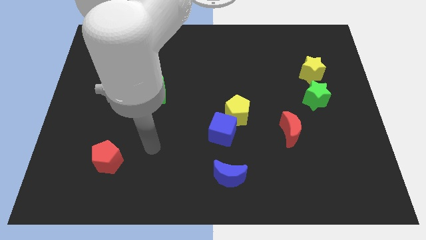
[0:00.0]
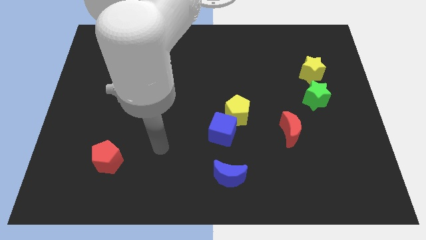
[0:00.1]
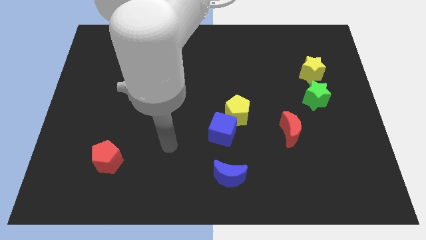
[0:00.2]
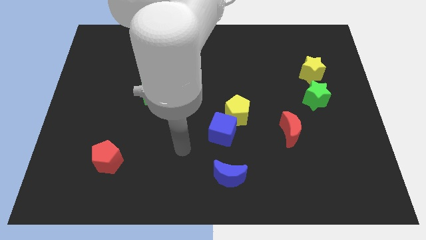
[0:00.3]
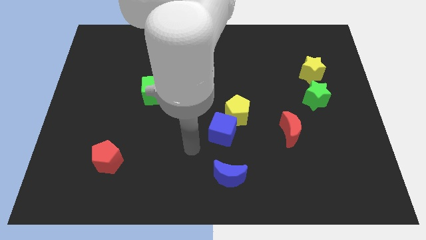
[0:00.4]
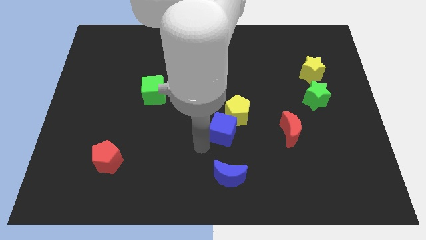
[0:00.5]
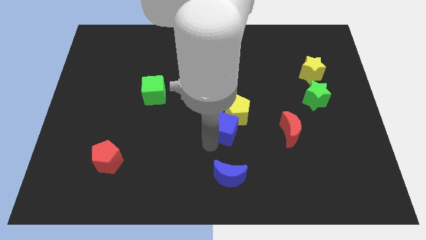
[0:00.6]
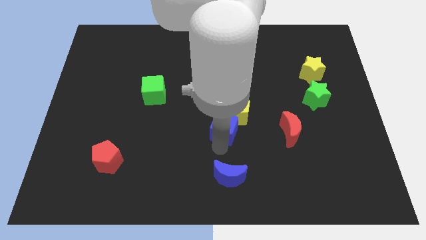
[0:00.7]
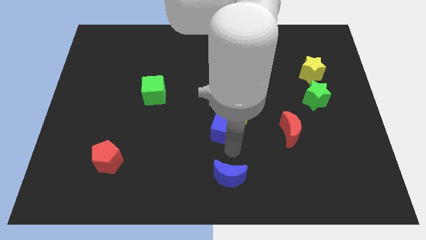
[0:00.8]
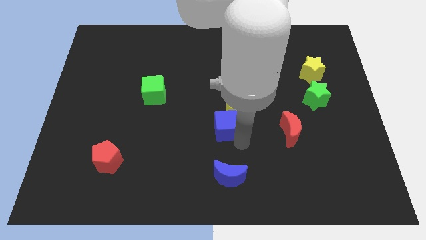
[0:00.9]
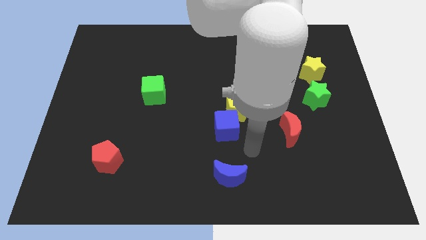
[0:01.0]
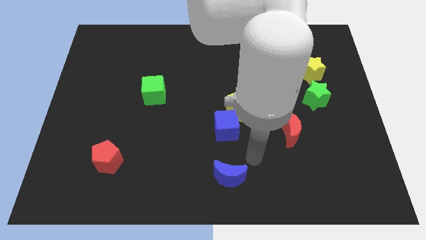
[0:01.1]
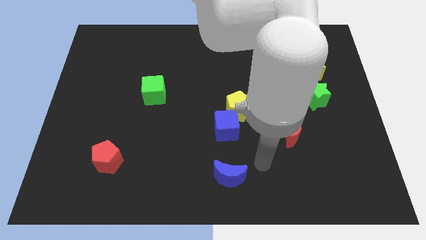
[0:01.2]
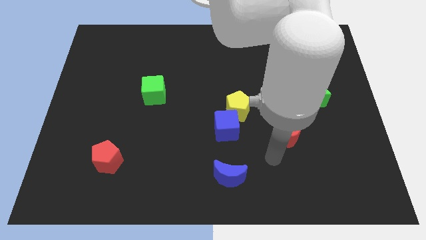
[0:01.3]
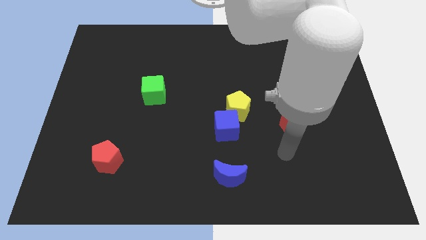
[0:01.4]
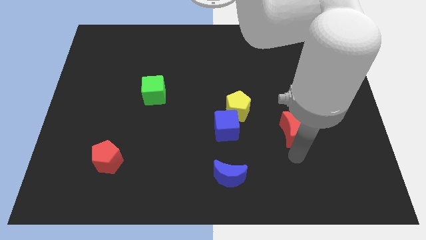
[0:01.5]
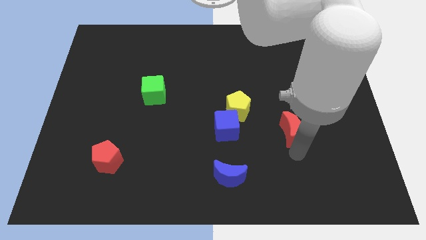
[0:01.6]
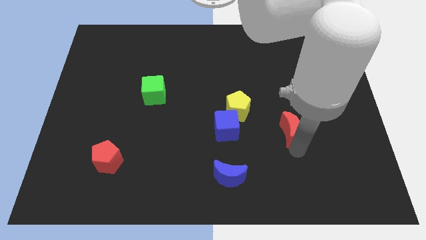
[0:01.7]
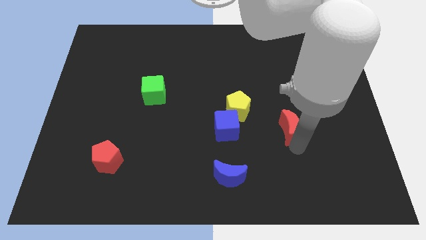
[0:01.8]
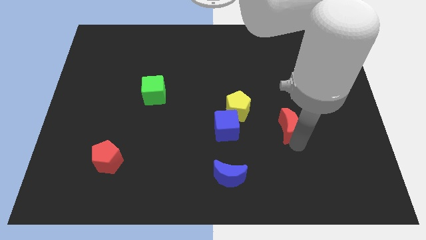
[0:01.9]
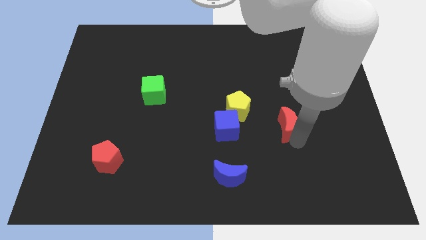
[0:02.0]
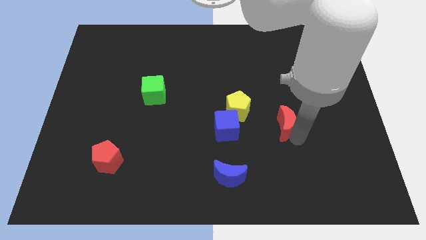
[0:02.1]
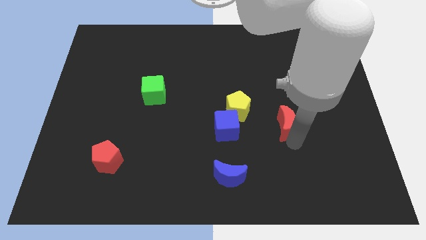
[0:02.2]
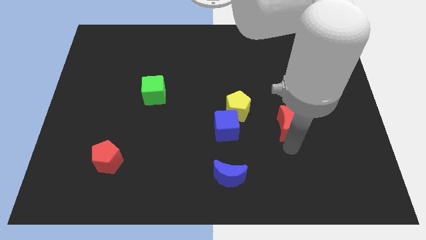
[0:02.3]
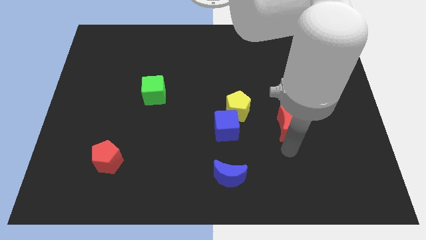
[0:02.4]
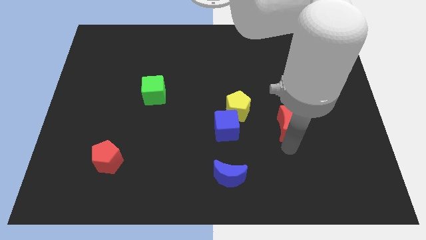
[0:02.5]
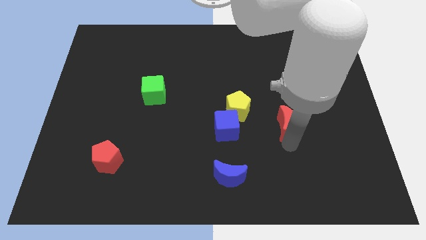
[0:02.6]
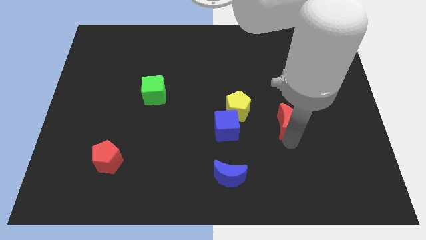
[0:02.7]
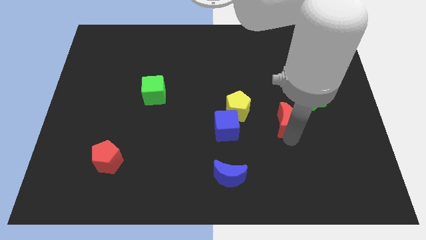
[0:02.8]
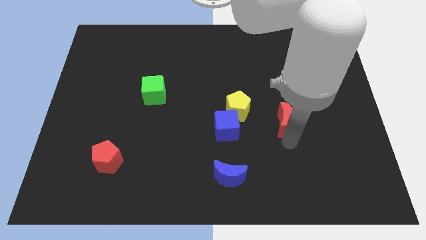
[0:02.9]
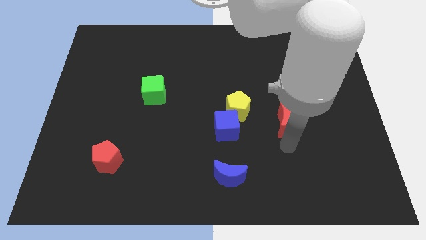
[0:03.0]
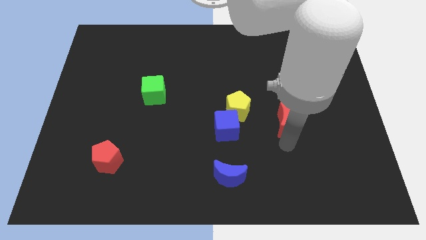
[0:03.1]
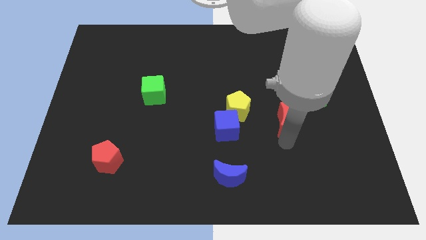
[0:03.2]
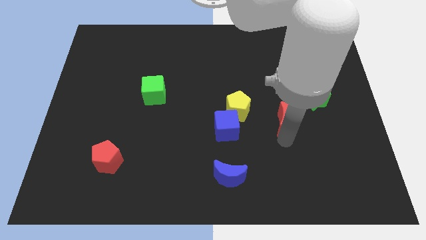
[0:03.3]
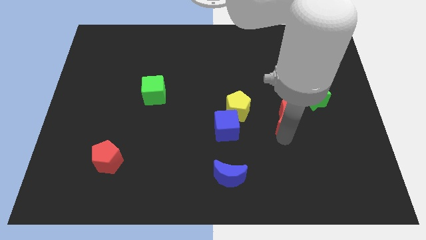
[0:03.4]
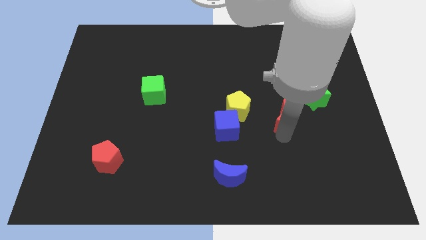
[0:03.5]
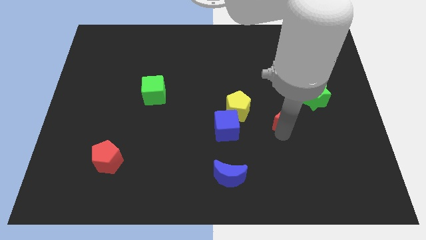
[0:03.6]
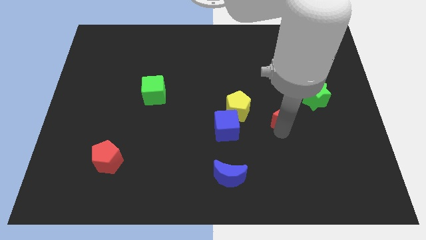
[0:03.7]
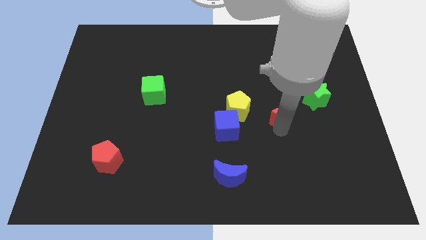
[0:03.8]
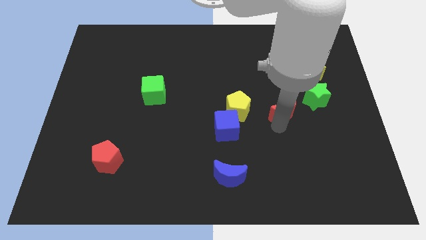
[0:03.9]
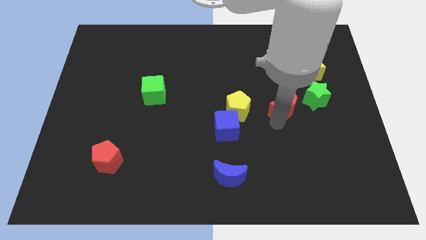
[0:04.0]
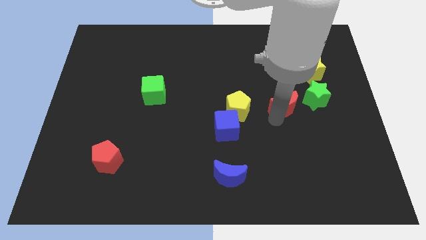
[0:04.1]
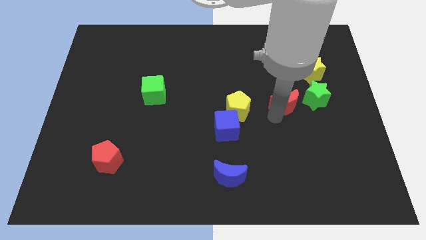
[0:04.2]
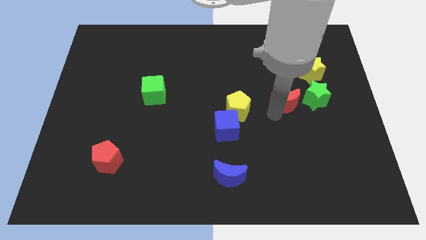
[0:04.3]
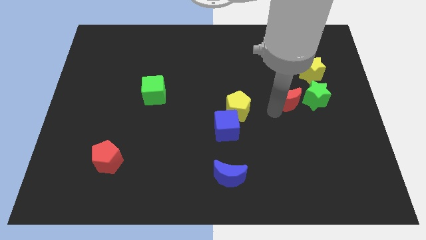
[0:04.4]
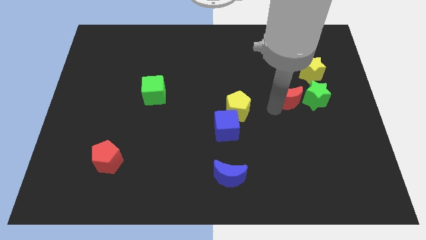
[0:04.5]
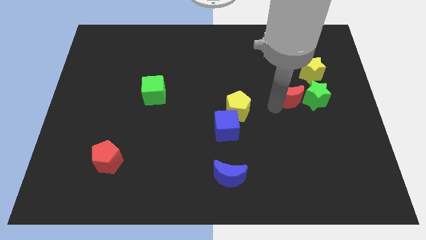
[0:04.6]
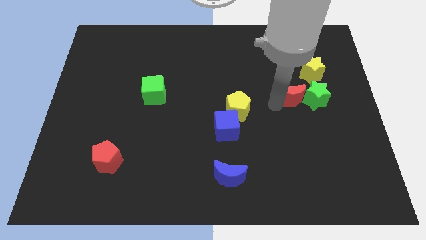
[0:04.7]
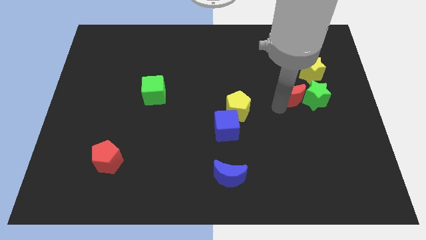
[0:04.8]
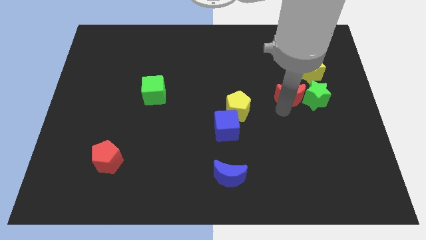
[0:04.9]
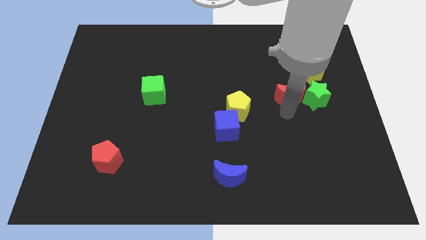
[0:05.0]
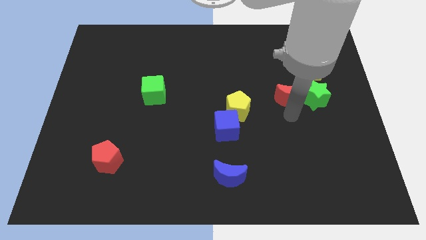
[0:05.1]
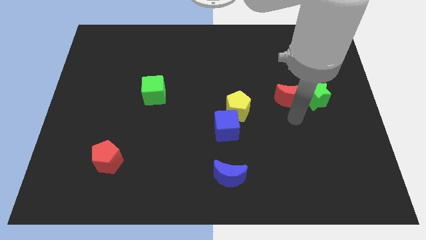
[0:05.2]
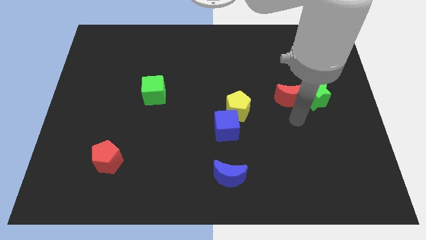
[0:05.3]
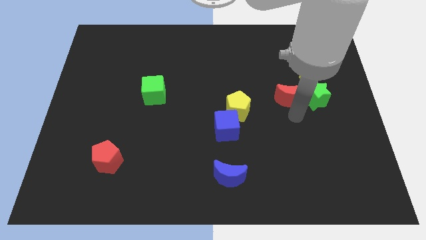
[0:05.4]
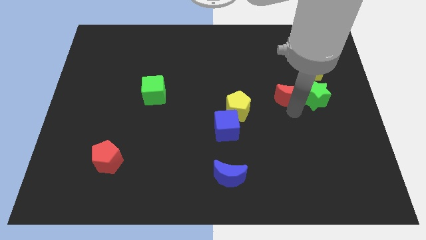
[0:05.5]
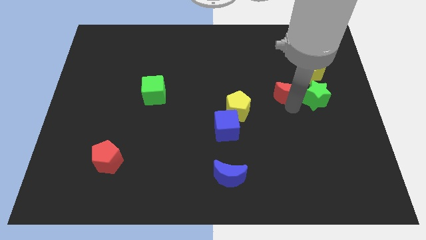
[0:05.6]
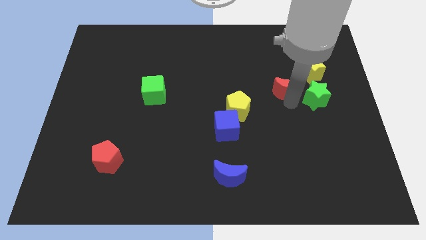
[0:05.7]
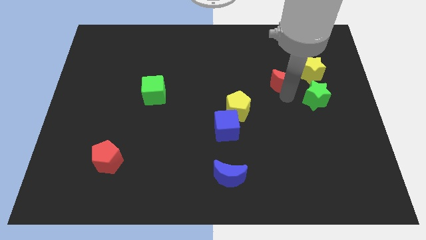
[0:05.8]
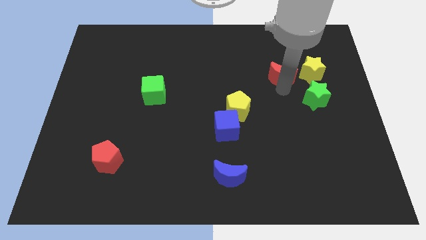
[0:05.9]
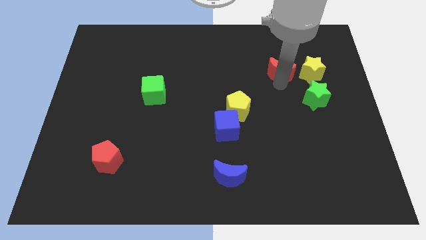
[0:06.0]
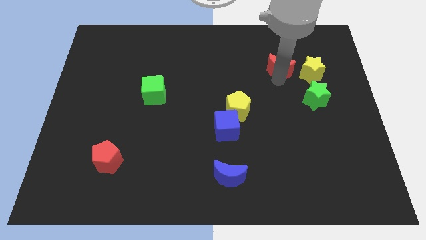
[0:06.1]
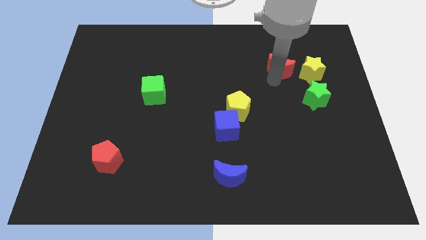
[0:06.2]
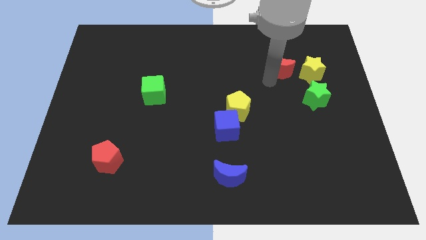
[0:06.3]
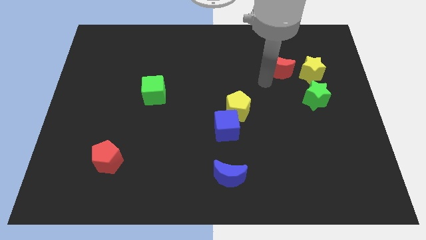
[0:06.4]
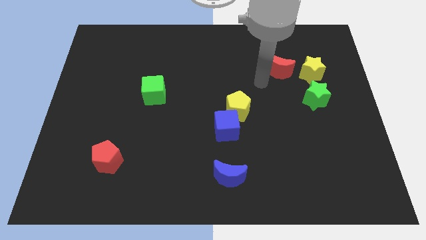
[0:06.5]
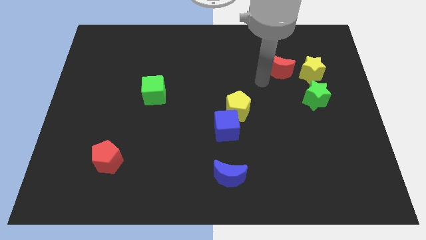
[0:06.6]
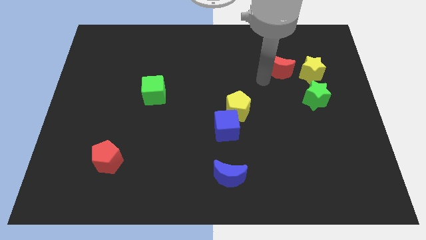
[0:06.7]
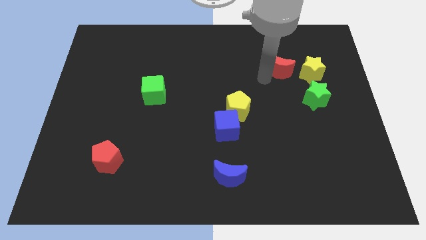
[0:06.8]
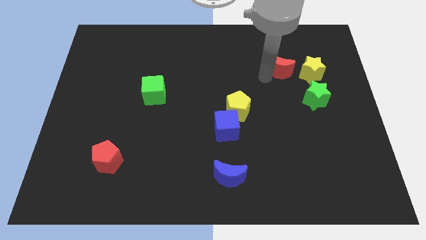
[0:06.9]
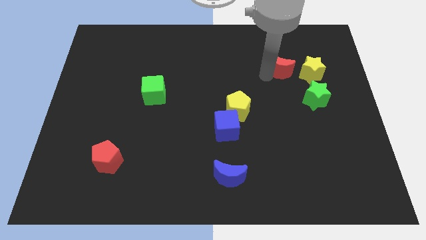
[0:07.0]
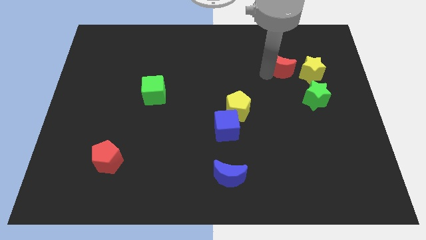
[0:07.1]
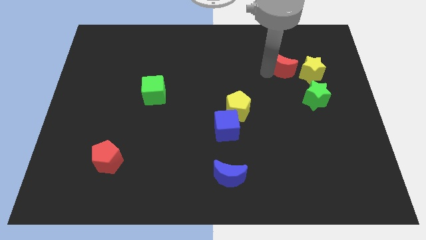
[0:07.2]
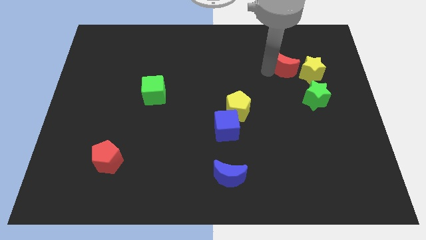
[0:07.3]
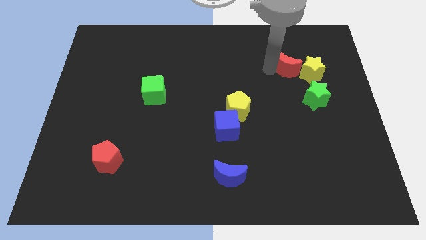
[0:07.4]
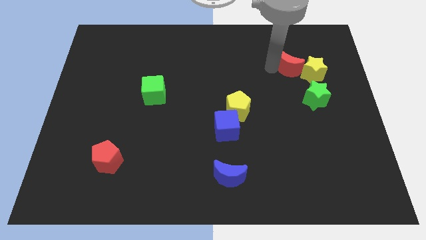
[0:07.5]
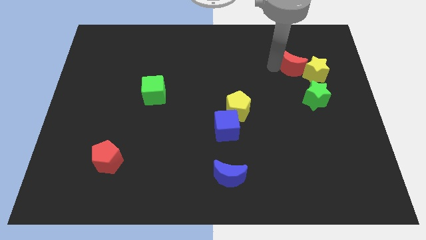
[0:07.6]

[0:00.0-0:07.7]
slide the red moon above the green star
